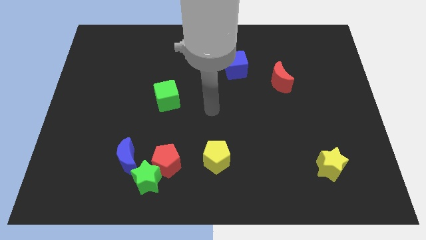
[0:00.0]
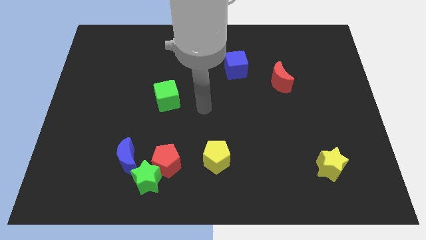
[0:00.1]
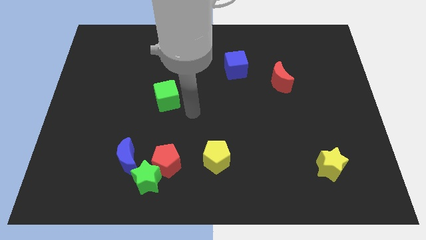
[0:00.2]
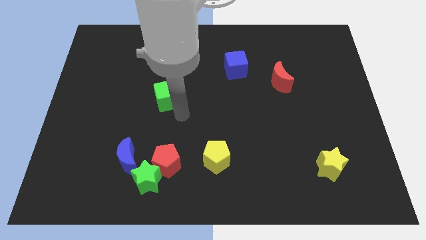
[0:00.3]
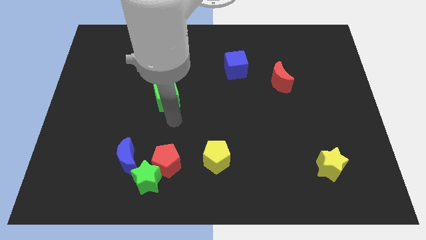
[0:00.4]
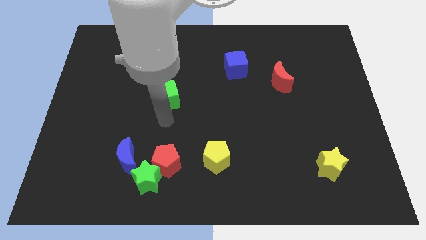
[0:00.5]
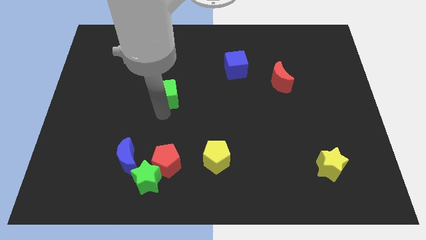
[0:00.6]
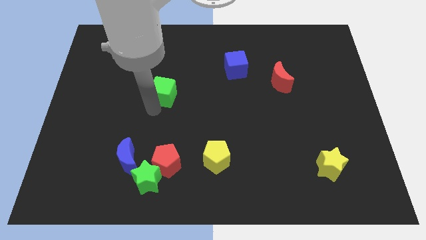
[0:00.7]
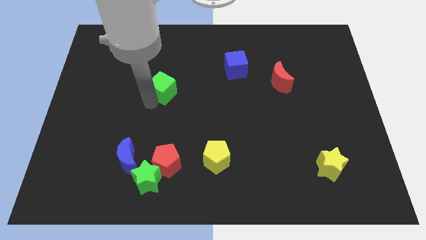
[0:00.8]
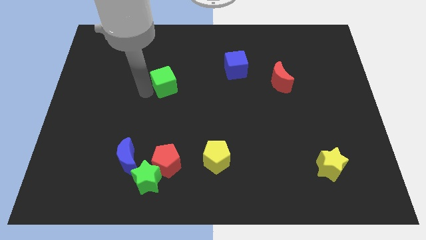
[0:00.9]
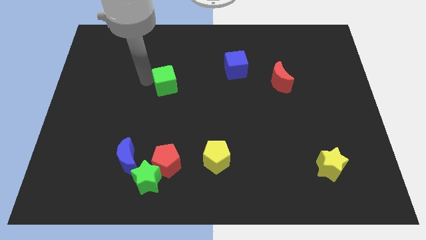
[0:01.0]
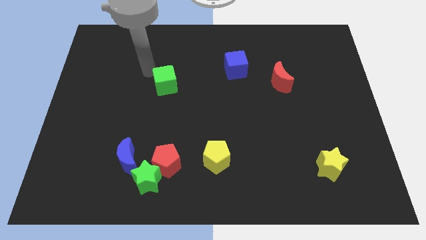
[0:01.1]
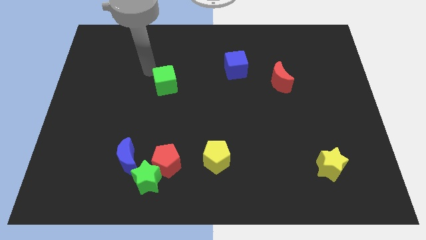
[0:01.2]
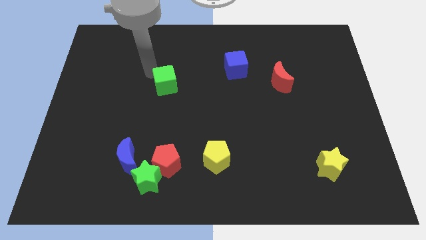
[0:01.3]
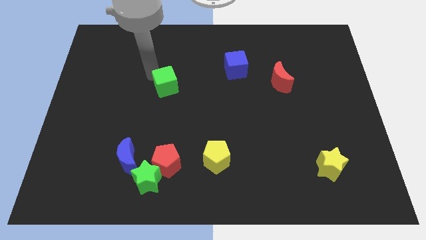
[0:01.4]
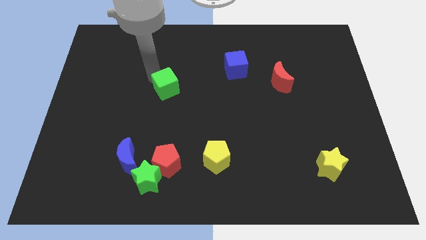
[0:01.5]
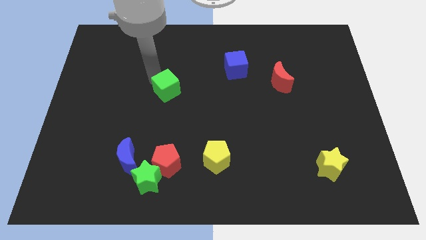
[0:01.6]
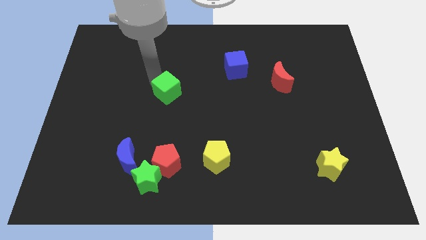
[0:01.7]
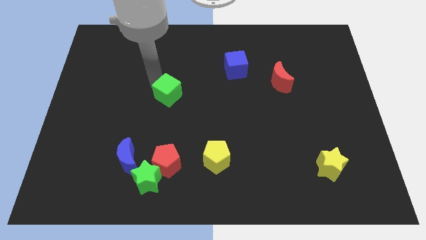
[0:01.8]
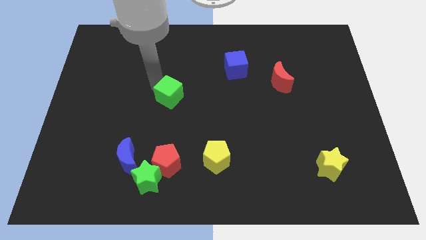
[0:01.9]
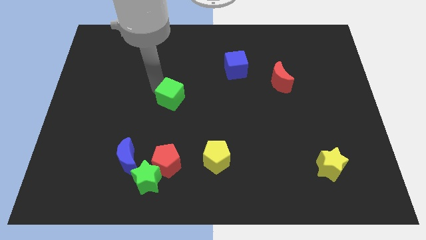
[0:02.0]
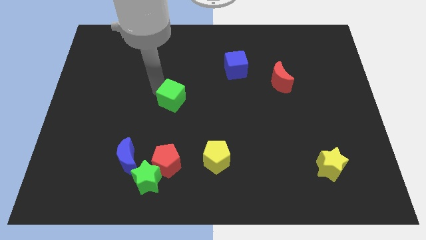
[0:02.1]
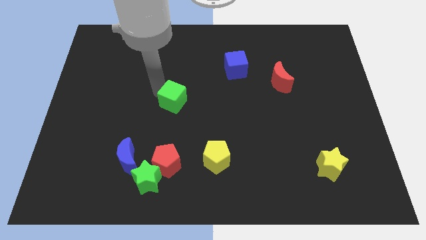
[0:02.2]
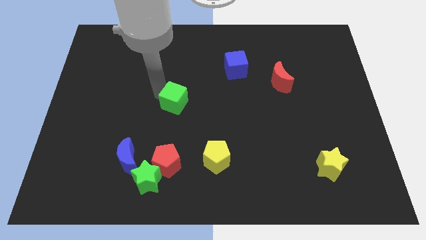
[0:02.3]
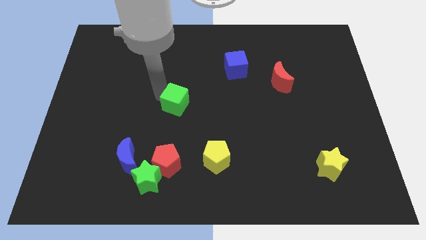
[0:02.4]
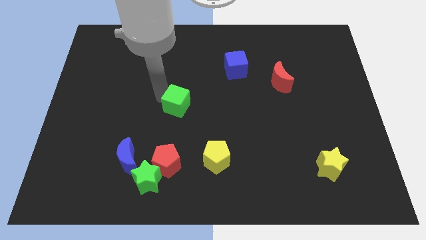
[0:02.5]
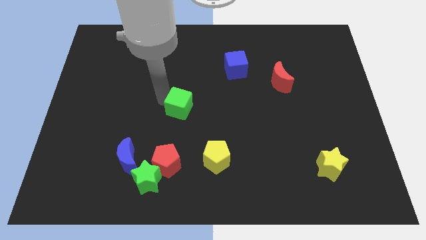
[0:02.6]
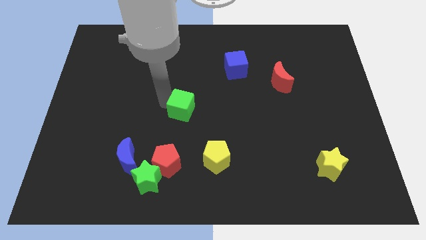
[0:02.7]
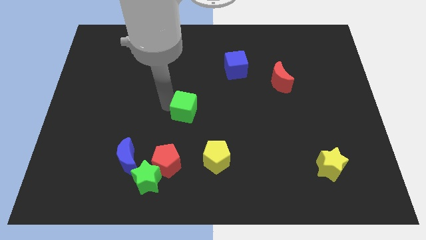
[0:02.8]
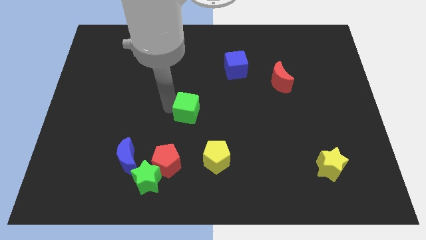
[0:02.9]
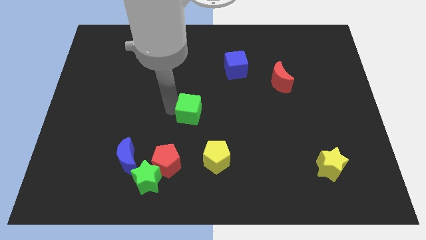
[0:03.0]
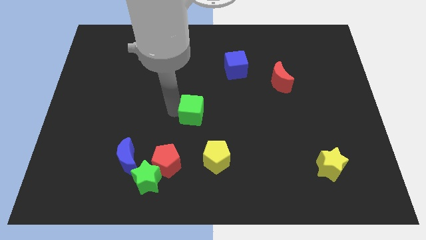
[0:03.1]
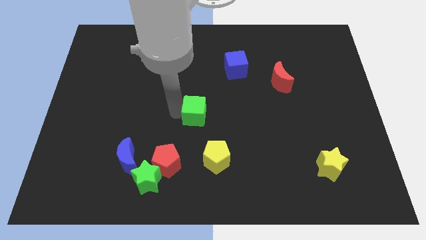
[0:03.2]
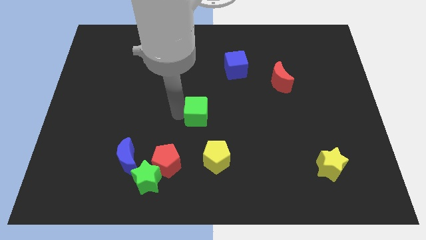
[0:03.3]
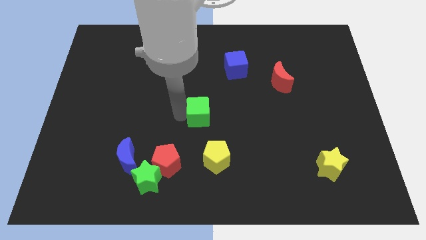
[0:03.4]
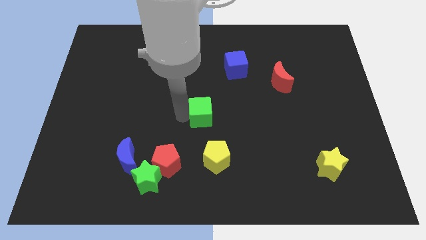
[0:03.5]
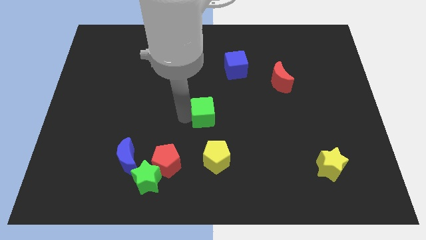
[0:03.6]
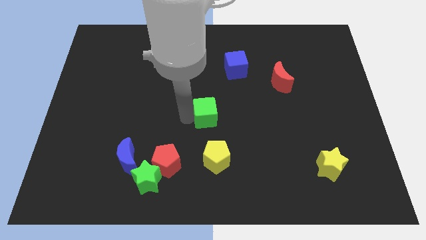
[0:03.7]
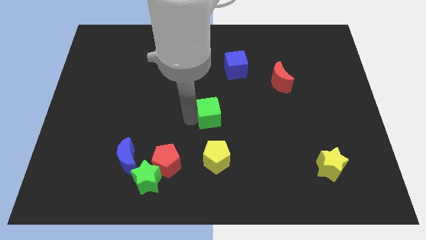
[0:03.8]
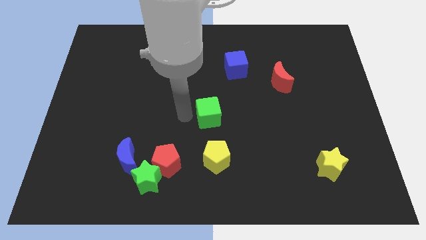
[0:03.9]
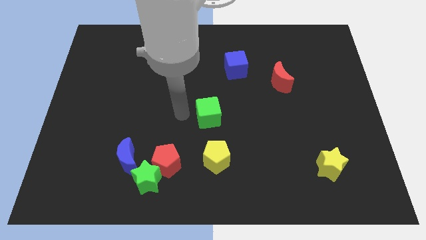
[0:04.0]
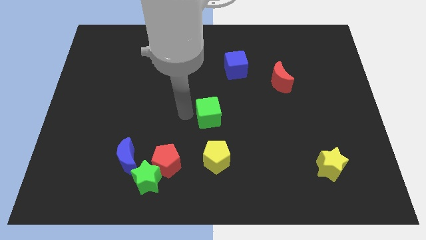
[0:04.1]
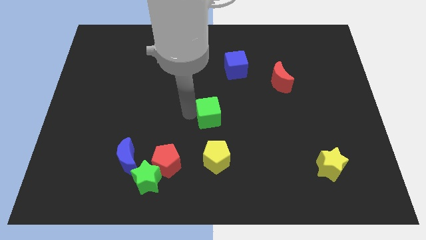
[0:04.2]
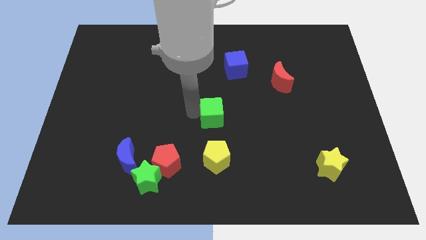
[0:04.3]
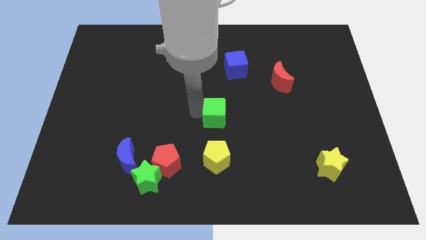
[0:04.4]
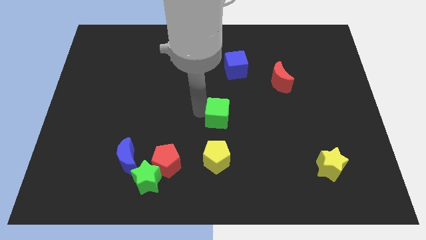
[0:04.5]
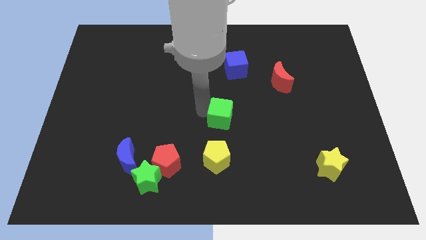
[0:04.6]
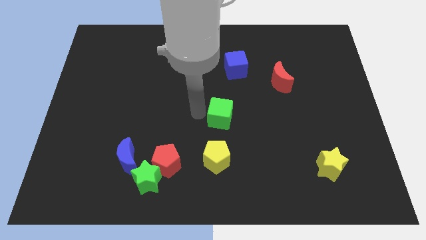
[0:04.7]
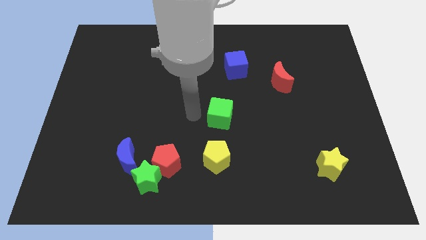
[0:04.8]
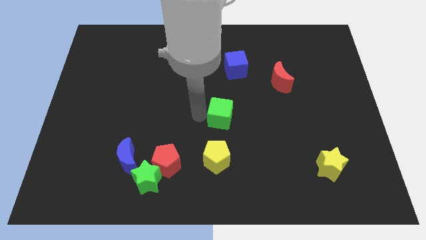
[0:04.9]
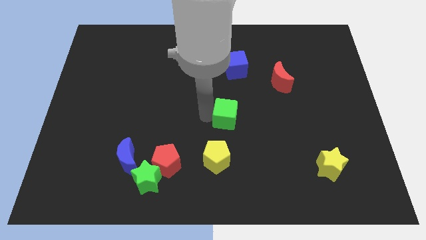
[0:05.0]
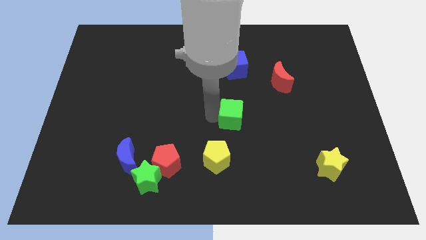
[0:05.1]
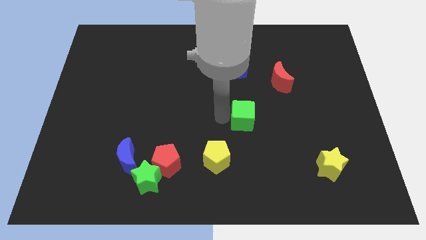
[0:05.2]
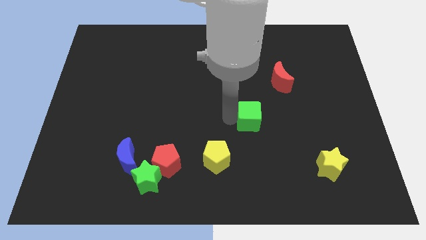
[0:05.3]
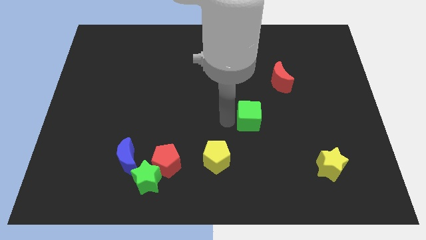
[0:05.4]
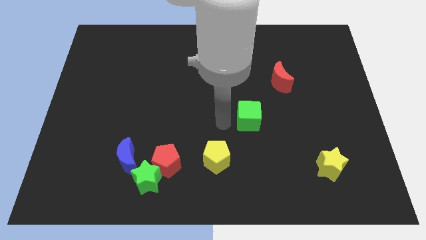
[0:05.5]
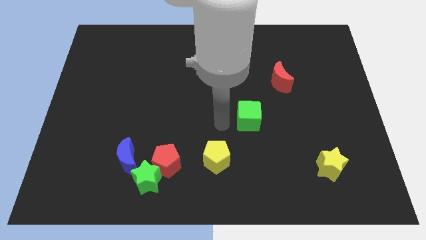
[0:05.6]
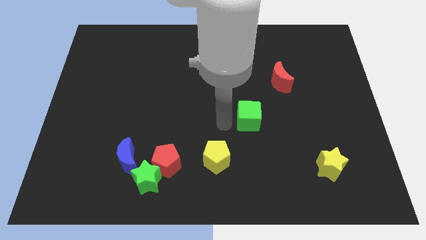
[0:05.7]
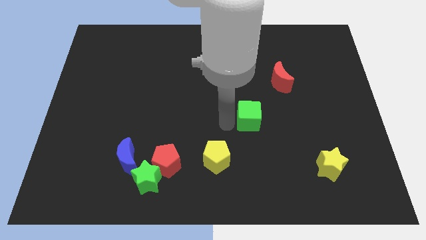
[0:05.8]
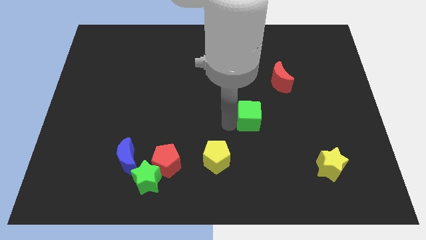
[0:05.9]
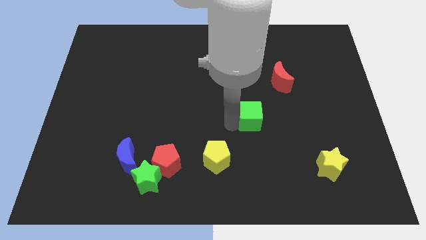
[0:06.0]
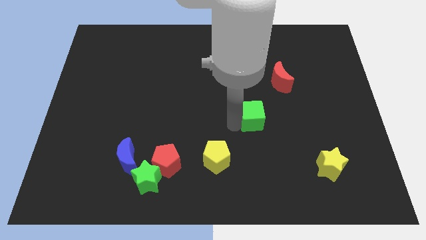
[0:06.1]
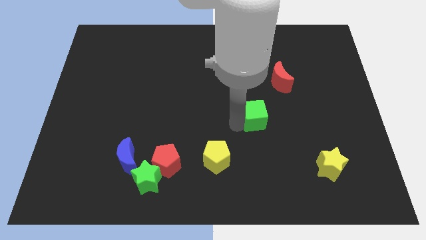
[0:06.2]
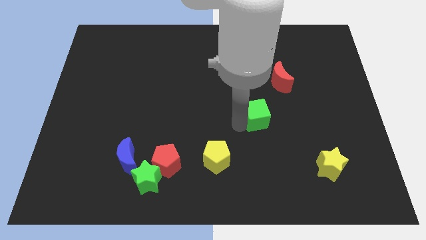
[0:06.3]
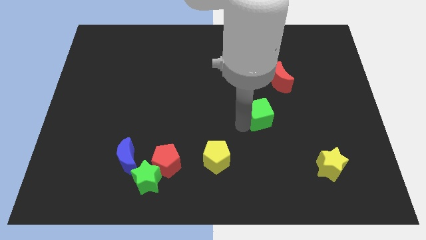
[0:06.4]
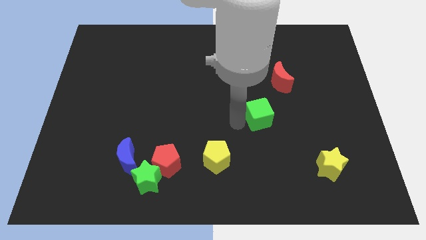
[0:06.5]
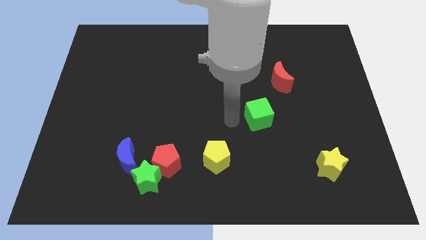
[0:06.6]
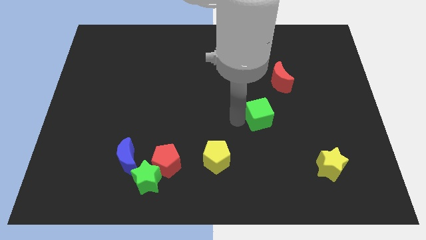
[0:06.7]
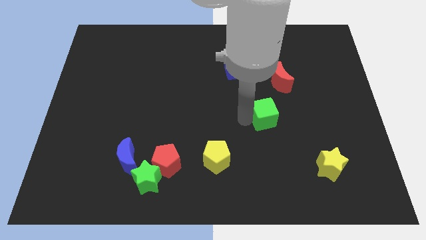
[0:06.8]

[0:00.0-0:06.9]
slide the green cube to the bottom side of the red moon
